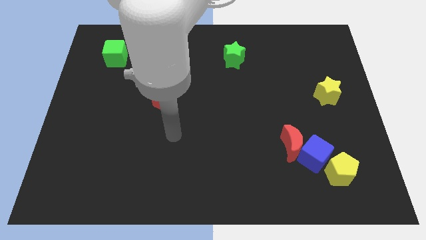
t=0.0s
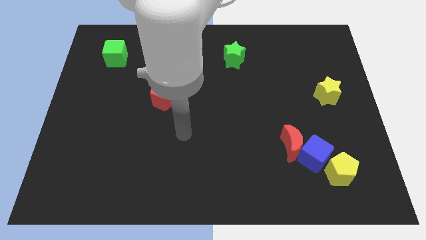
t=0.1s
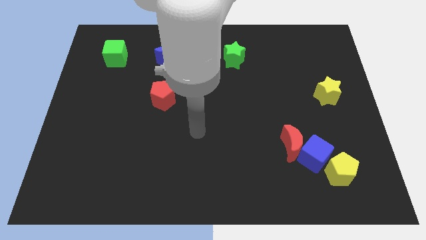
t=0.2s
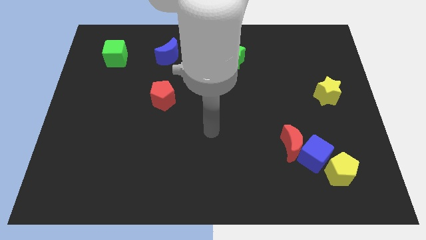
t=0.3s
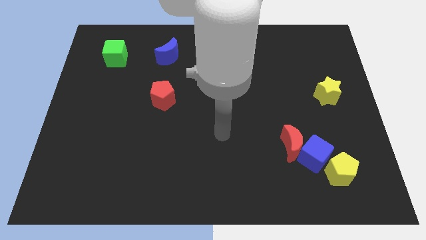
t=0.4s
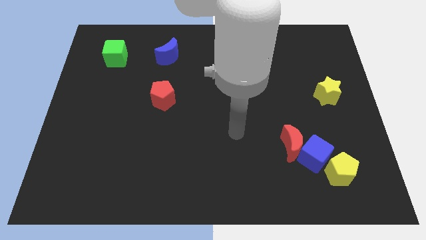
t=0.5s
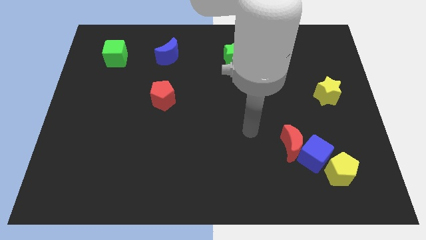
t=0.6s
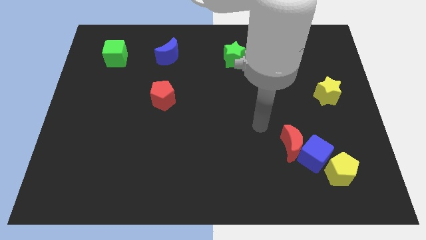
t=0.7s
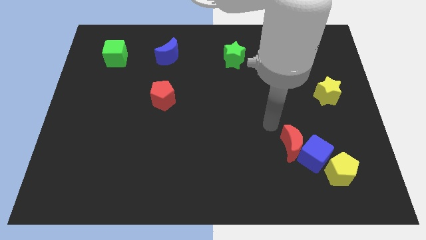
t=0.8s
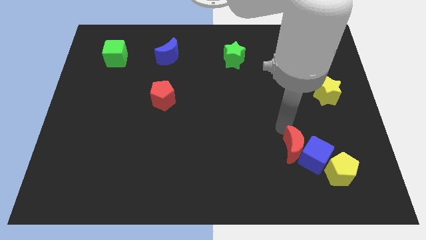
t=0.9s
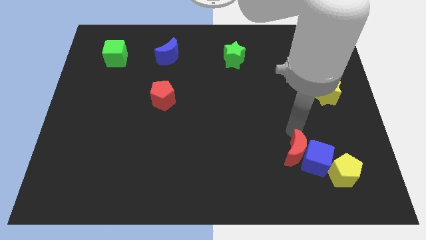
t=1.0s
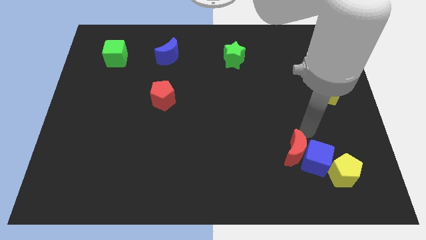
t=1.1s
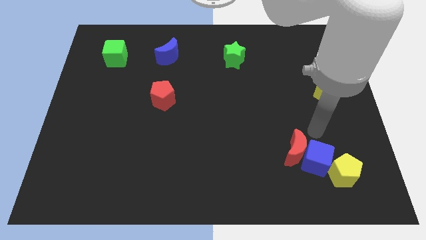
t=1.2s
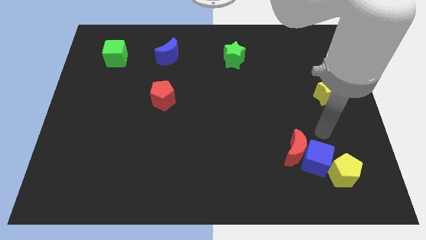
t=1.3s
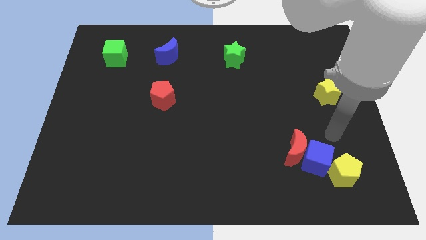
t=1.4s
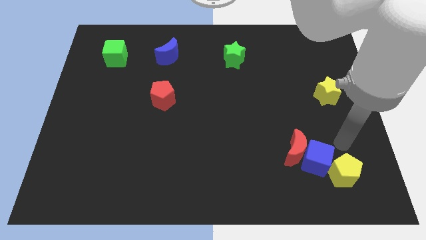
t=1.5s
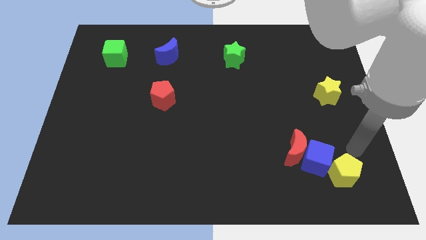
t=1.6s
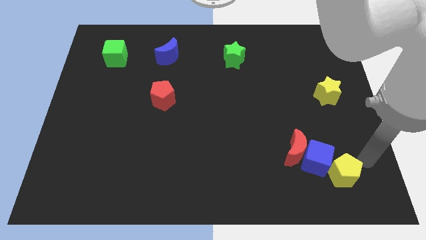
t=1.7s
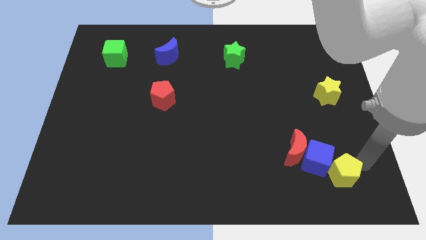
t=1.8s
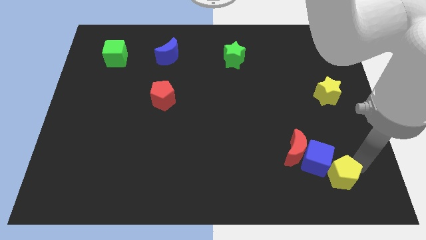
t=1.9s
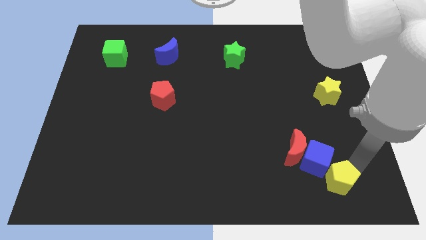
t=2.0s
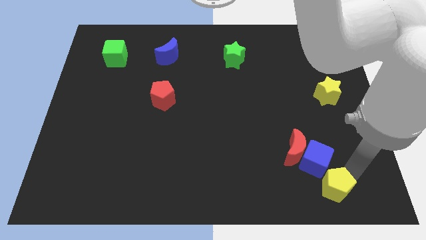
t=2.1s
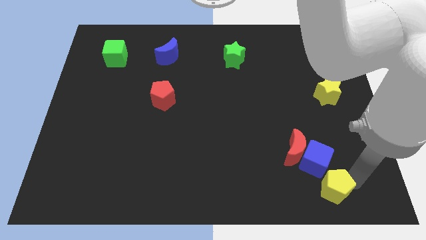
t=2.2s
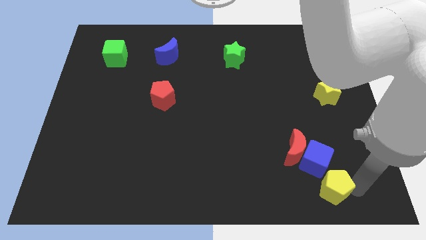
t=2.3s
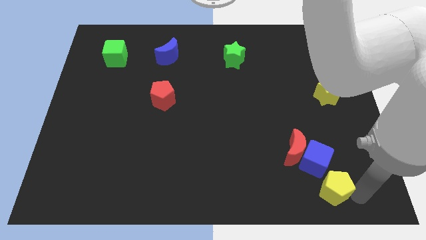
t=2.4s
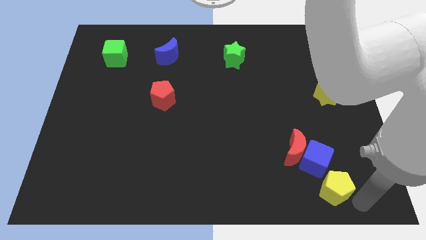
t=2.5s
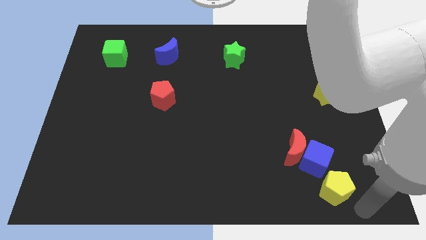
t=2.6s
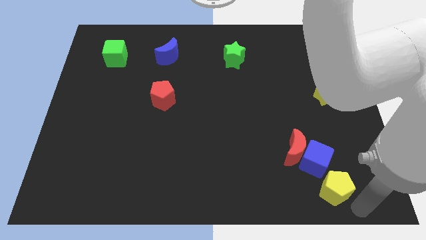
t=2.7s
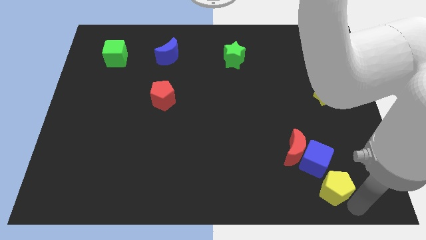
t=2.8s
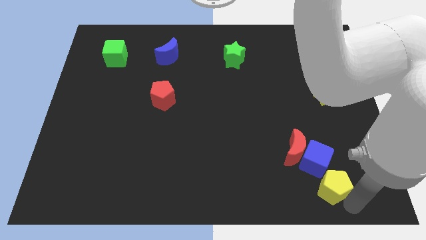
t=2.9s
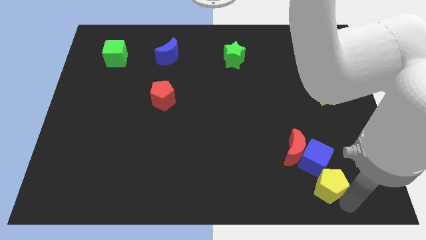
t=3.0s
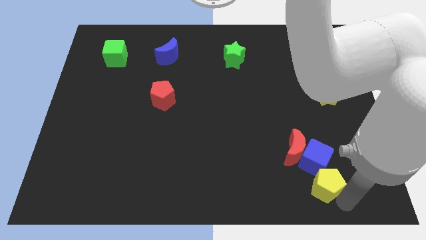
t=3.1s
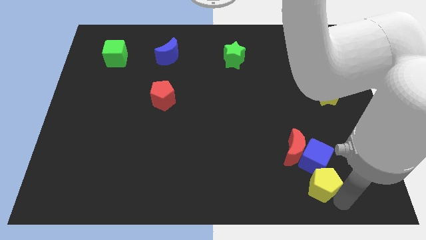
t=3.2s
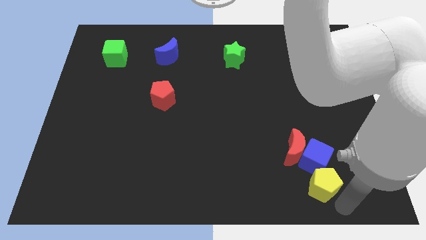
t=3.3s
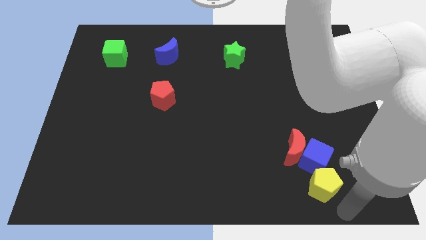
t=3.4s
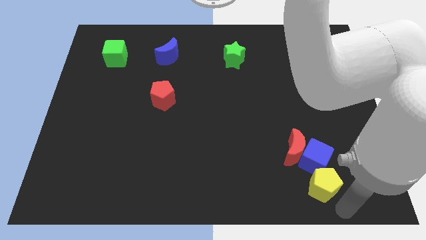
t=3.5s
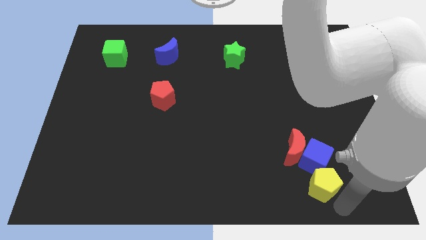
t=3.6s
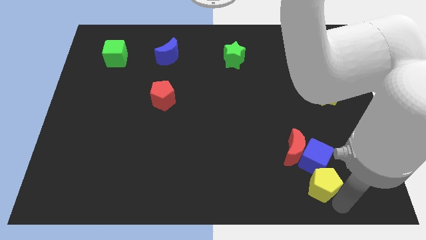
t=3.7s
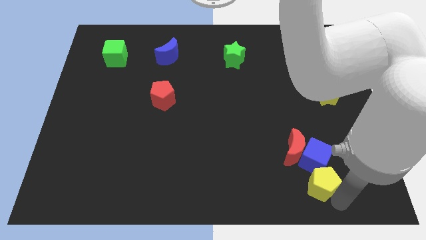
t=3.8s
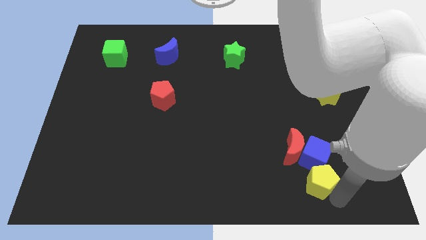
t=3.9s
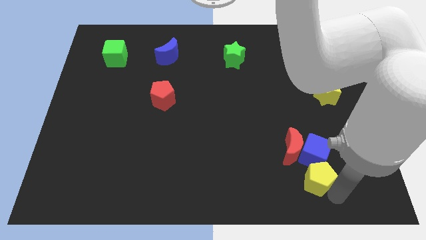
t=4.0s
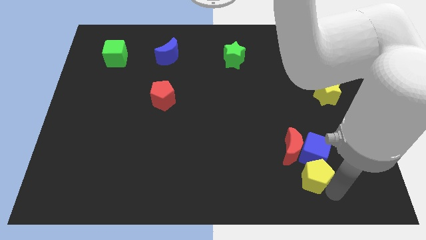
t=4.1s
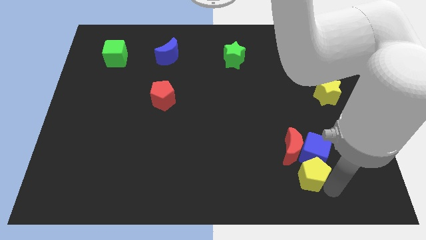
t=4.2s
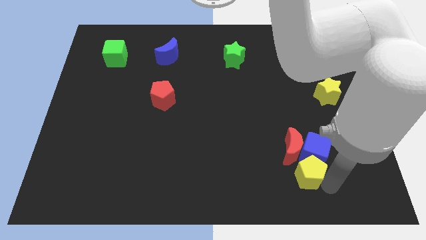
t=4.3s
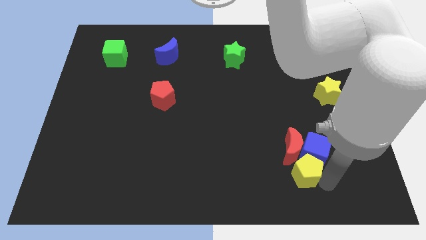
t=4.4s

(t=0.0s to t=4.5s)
move the yellow pentagon to the left a little

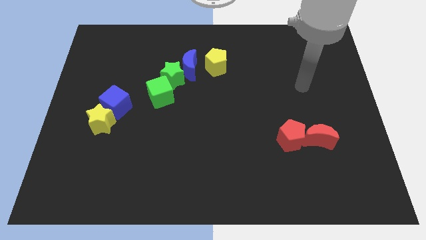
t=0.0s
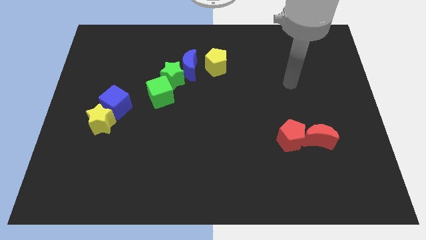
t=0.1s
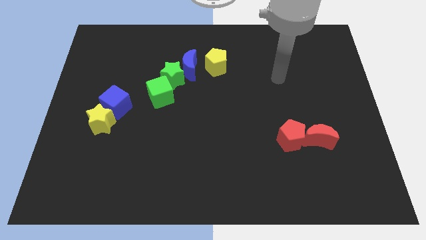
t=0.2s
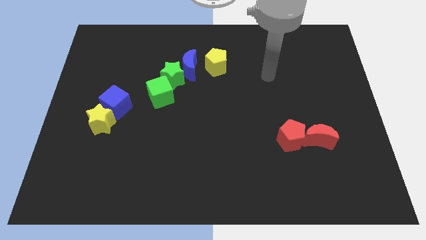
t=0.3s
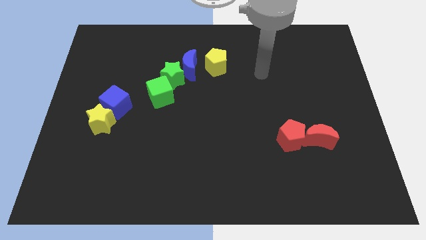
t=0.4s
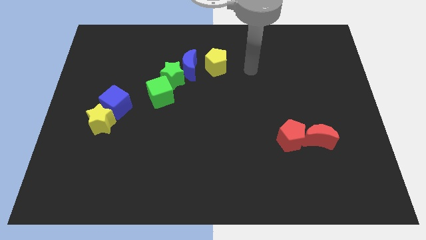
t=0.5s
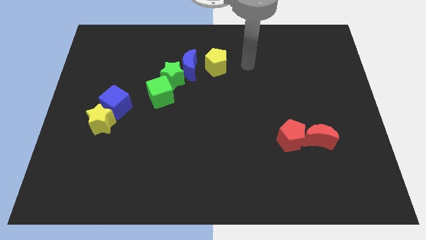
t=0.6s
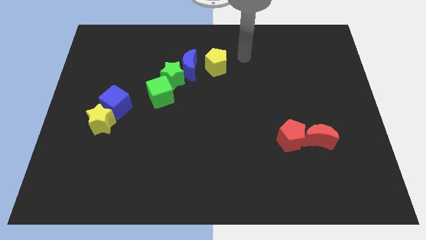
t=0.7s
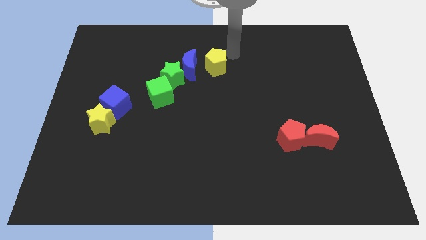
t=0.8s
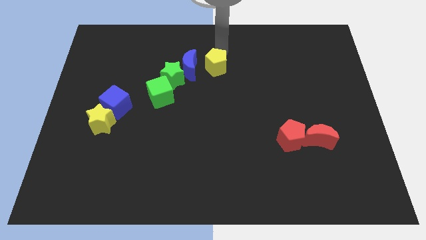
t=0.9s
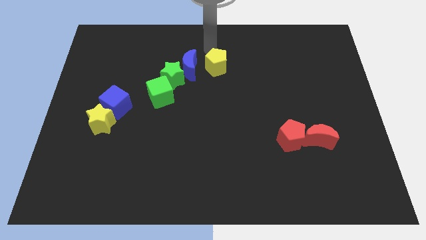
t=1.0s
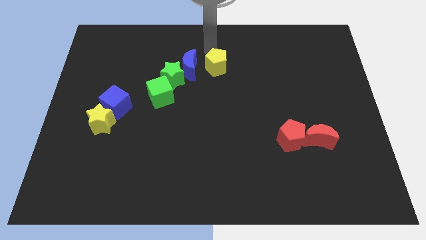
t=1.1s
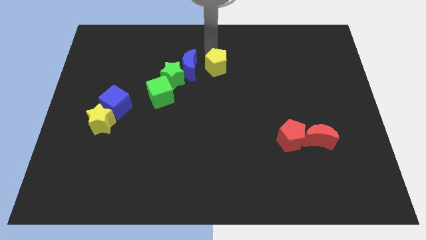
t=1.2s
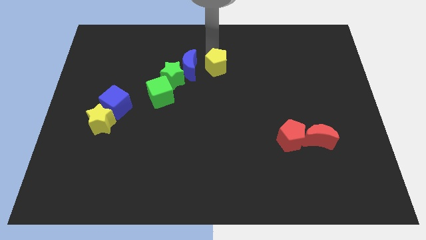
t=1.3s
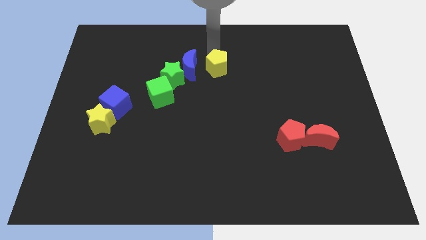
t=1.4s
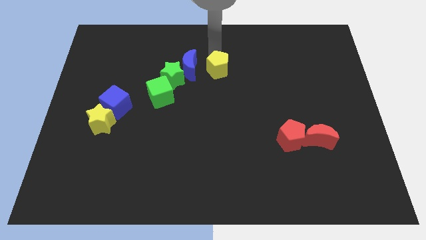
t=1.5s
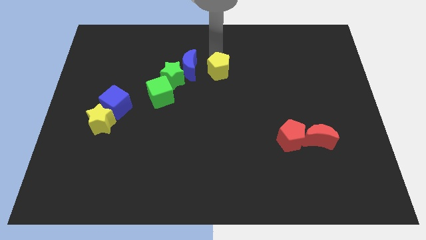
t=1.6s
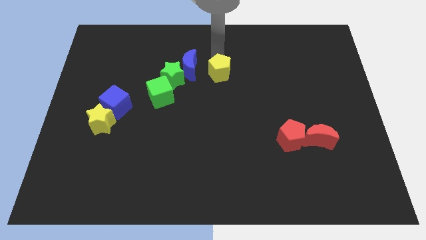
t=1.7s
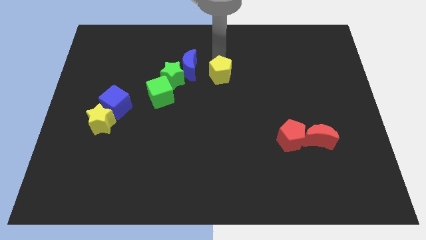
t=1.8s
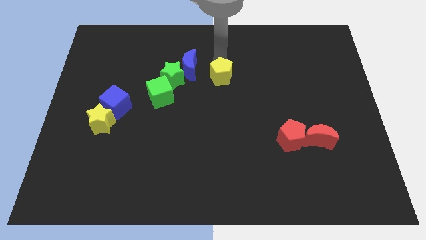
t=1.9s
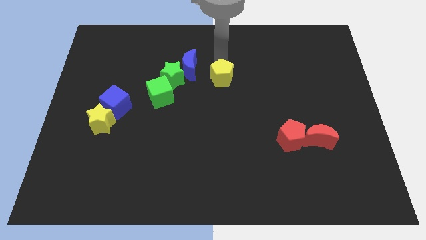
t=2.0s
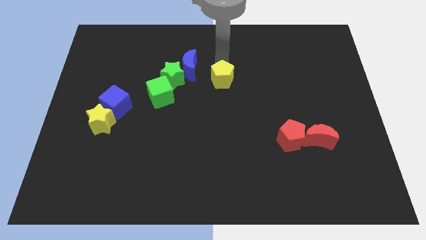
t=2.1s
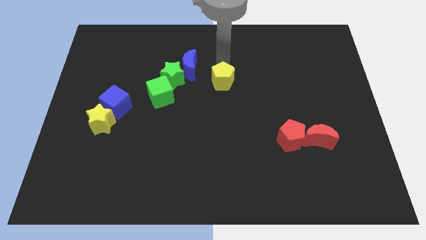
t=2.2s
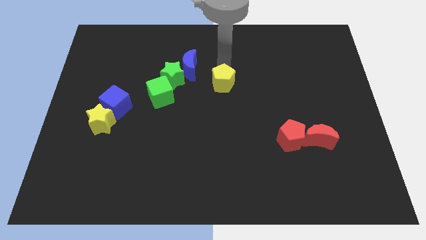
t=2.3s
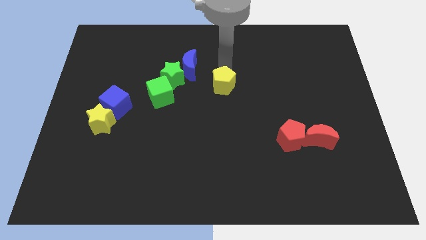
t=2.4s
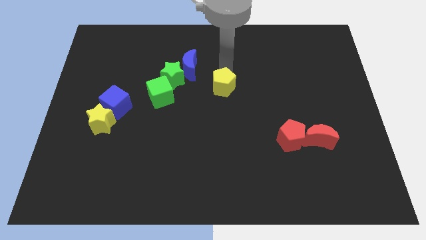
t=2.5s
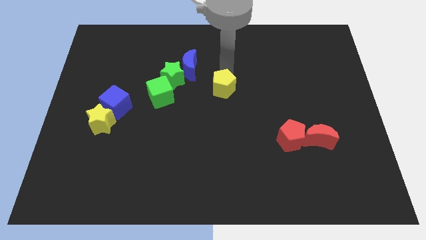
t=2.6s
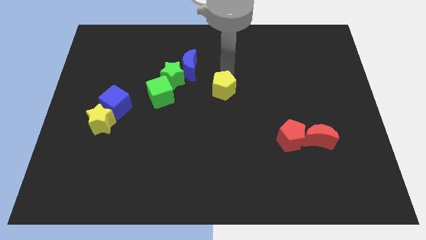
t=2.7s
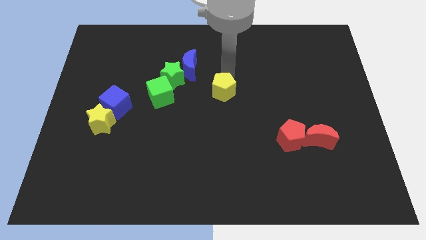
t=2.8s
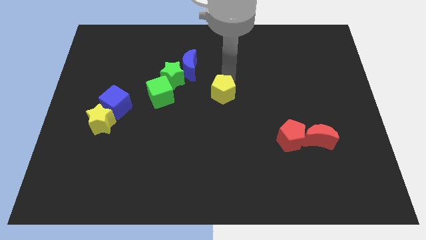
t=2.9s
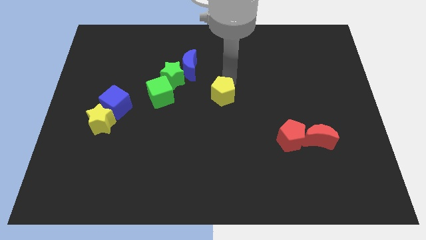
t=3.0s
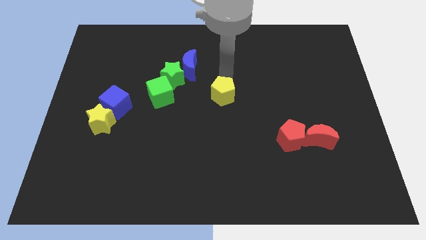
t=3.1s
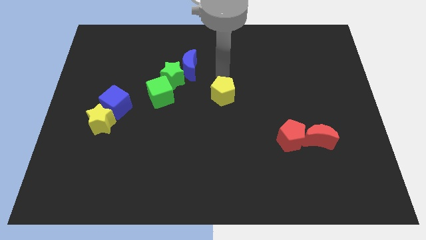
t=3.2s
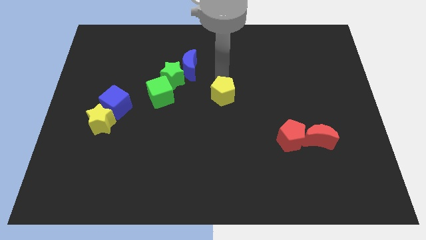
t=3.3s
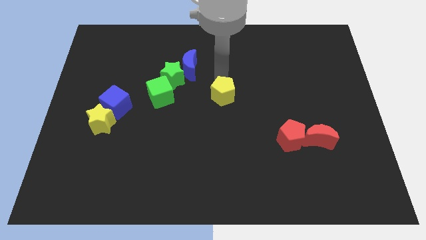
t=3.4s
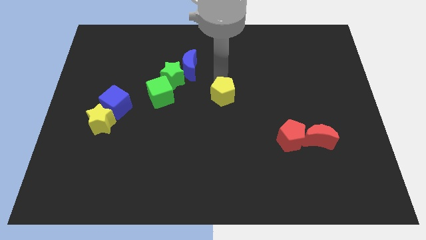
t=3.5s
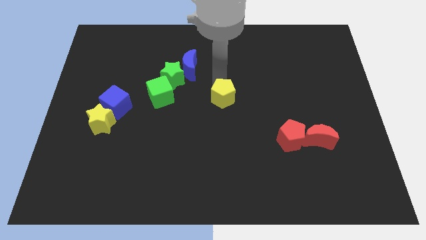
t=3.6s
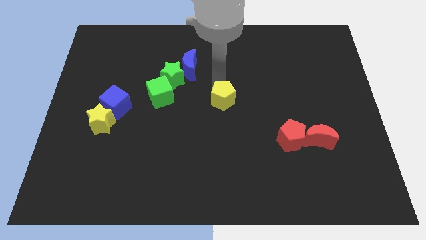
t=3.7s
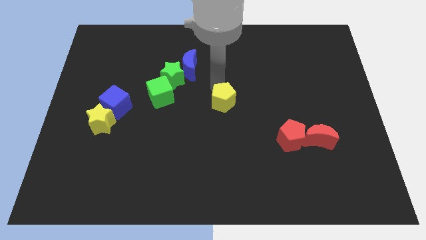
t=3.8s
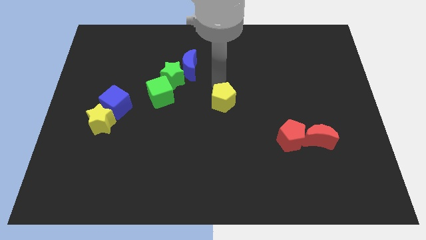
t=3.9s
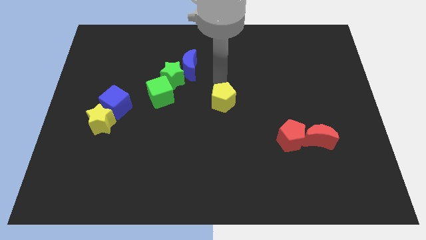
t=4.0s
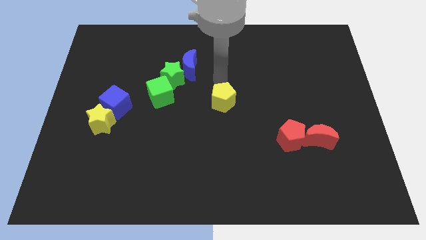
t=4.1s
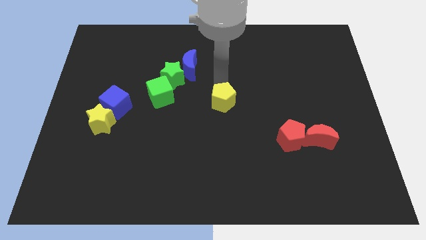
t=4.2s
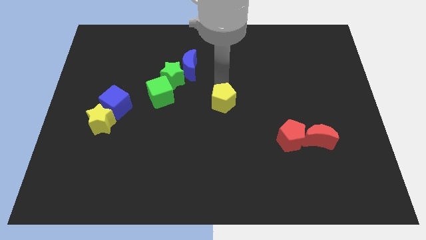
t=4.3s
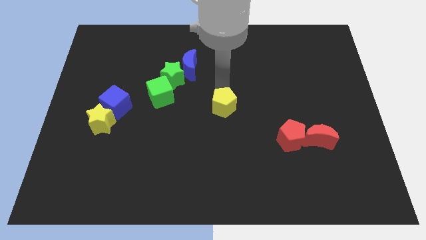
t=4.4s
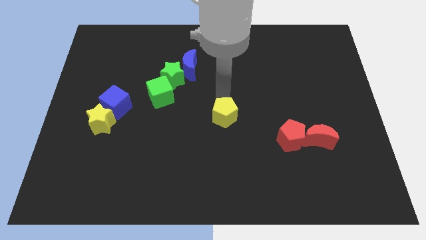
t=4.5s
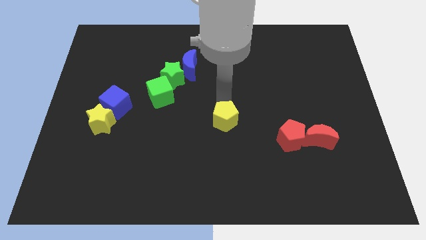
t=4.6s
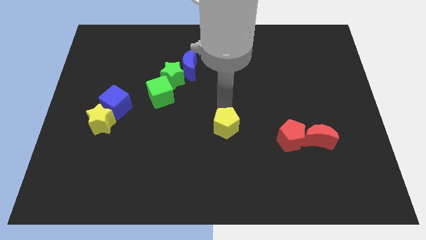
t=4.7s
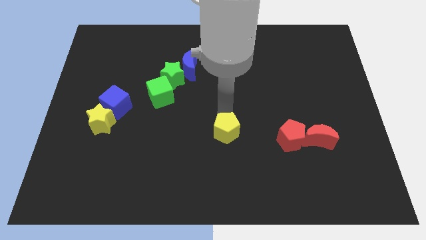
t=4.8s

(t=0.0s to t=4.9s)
slide the yellow pentagon downwards
